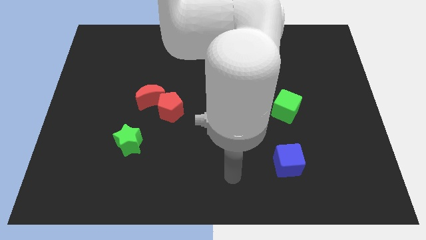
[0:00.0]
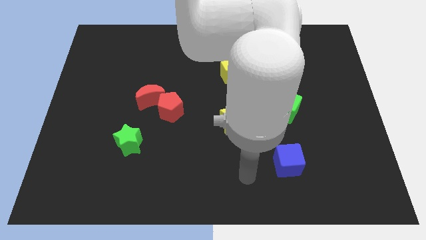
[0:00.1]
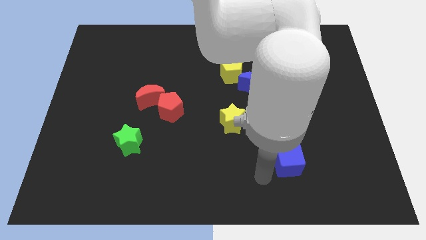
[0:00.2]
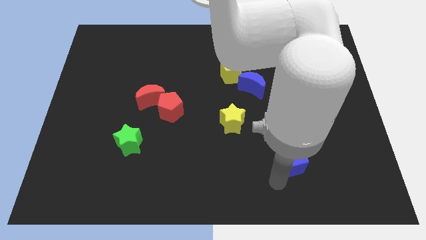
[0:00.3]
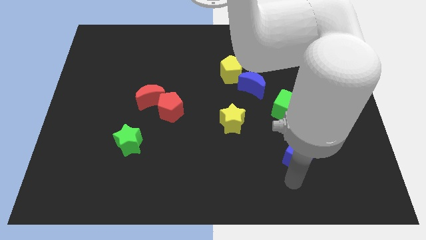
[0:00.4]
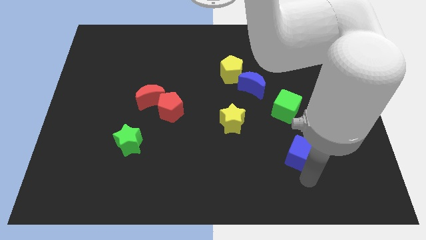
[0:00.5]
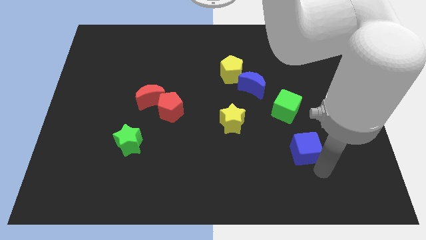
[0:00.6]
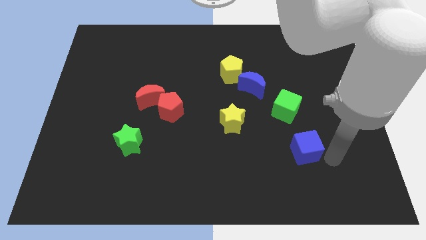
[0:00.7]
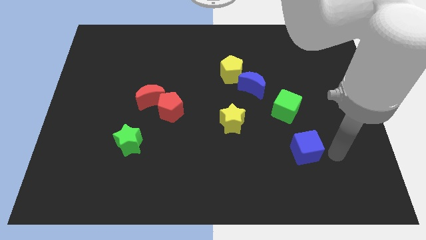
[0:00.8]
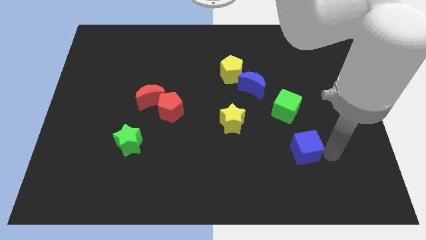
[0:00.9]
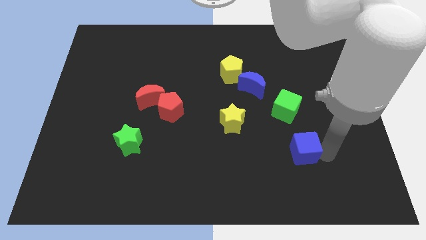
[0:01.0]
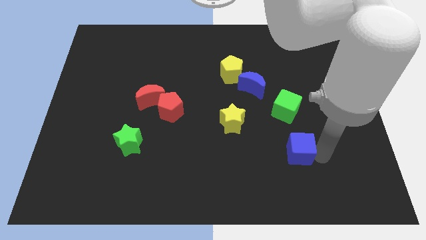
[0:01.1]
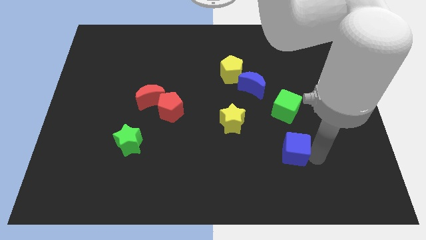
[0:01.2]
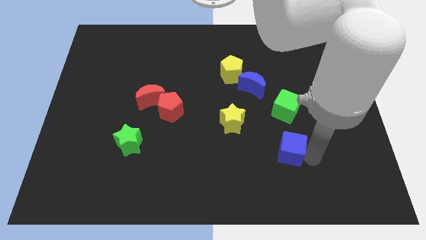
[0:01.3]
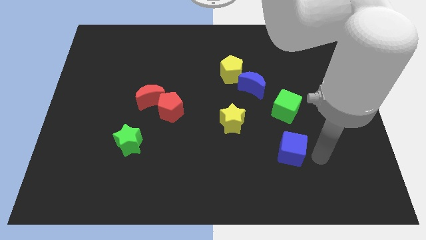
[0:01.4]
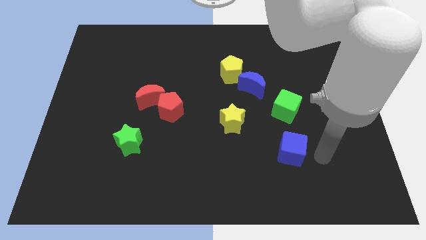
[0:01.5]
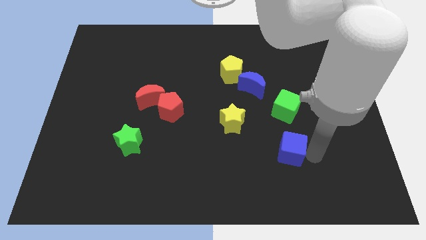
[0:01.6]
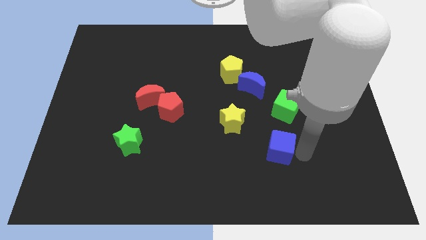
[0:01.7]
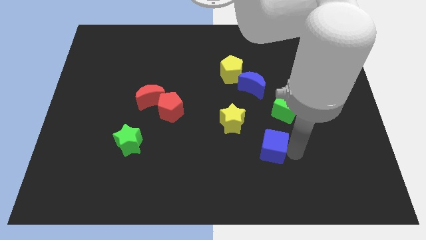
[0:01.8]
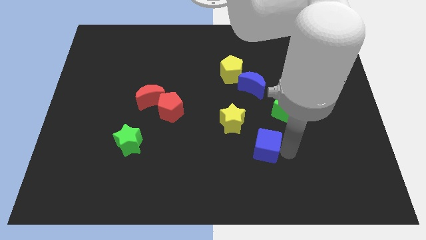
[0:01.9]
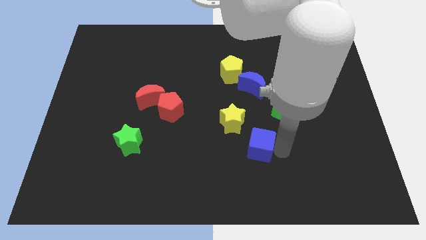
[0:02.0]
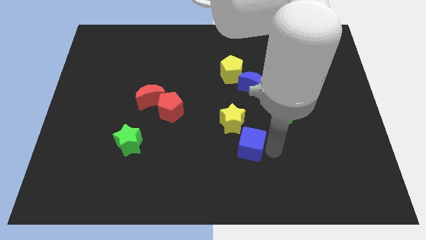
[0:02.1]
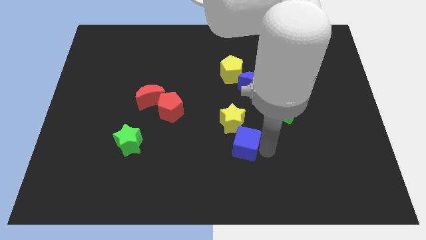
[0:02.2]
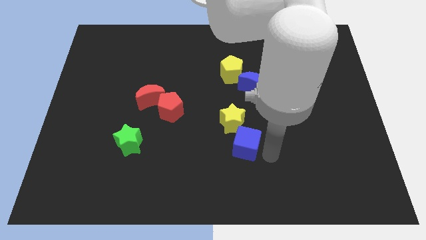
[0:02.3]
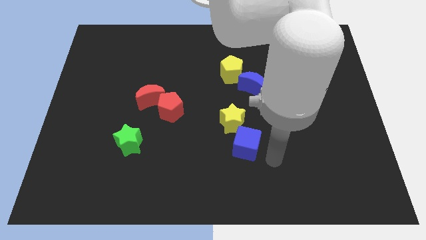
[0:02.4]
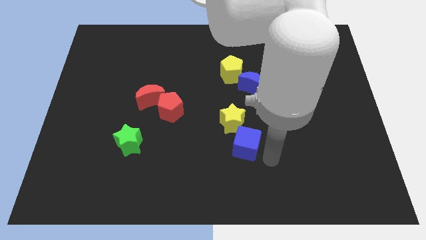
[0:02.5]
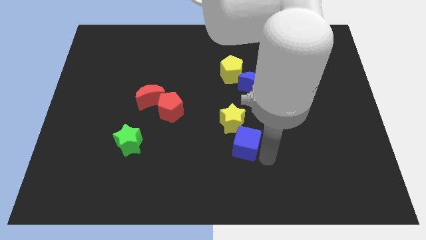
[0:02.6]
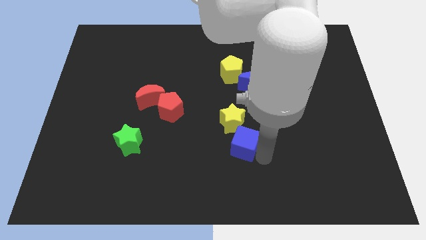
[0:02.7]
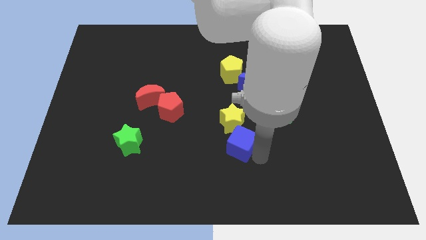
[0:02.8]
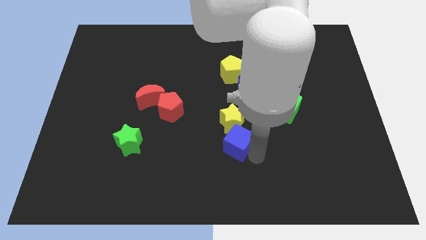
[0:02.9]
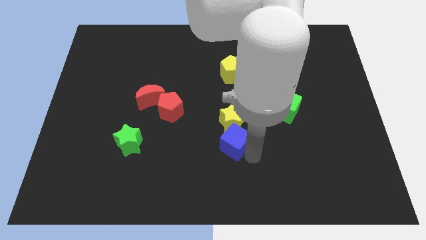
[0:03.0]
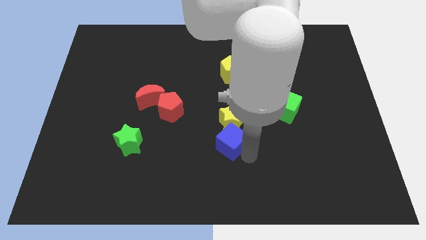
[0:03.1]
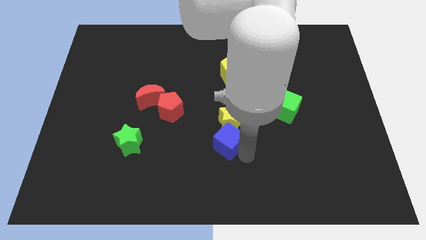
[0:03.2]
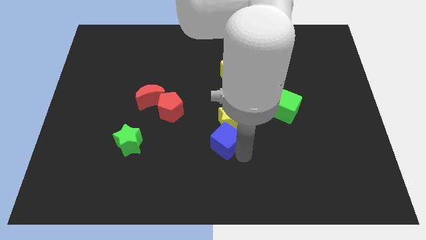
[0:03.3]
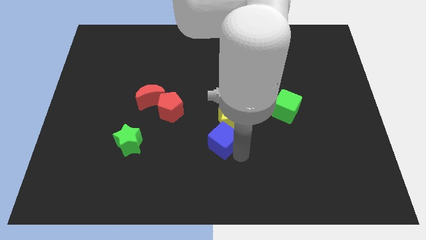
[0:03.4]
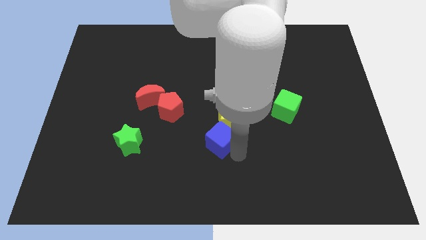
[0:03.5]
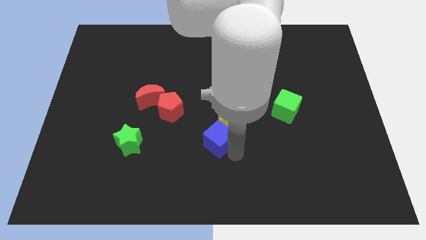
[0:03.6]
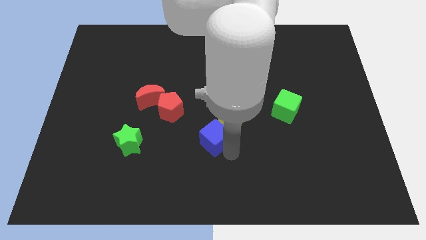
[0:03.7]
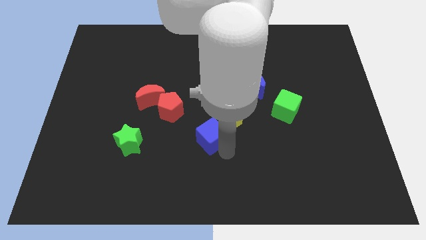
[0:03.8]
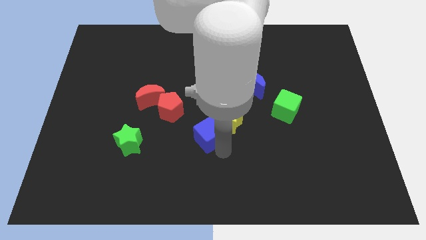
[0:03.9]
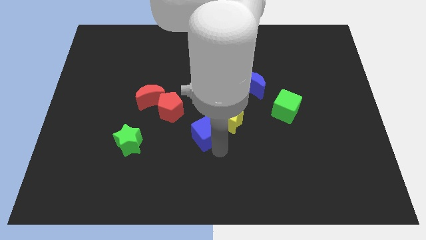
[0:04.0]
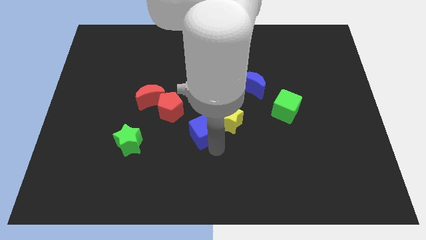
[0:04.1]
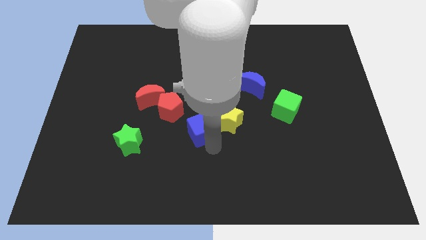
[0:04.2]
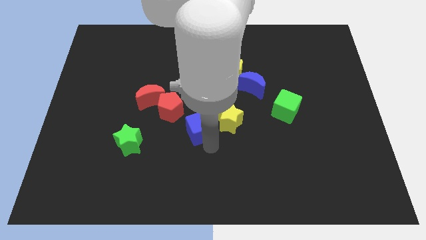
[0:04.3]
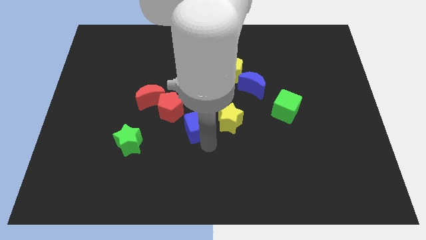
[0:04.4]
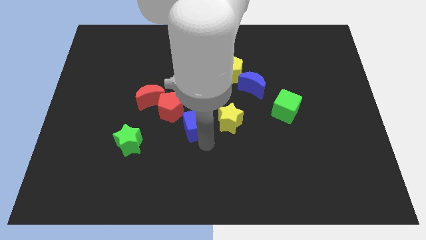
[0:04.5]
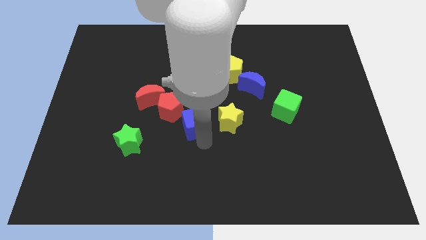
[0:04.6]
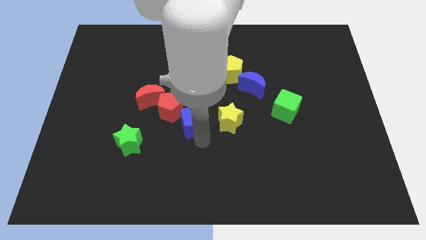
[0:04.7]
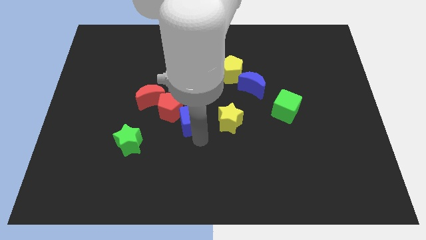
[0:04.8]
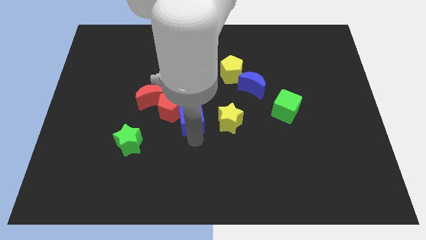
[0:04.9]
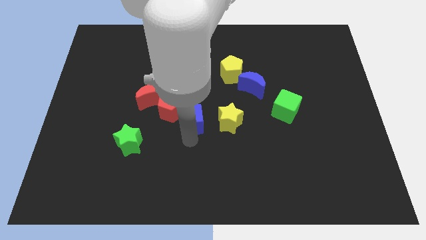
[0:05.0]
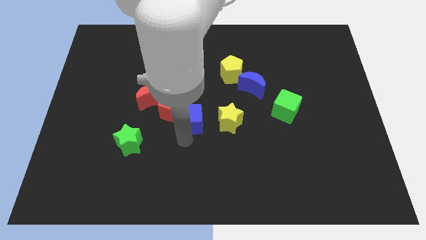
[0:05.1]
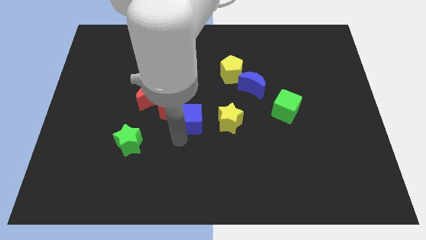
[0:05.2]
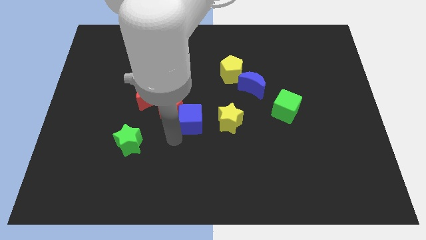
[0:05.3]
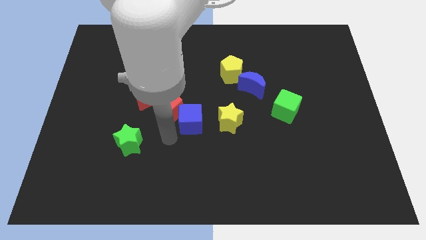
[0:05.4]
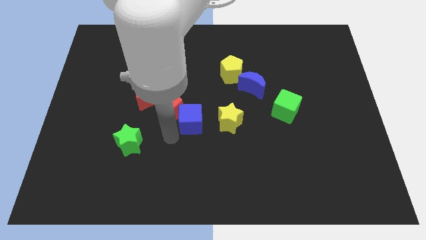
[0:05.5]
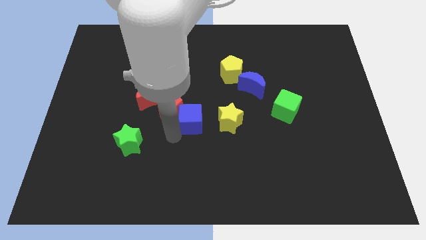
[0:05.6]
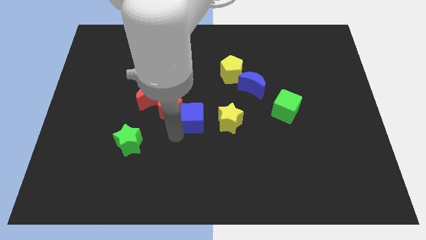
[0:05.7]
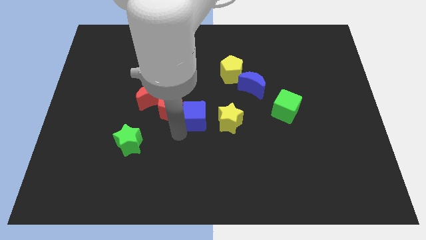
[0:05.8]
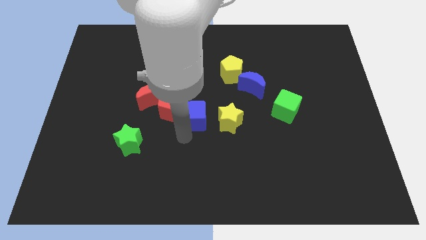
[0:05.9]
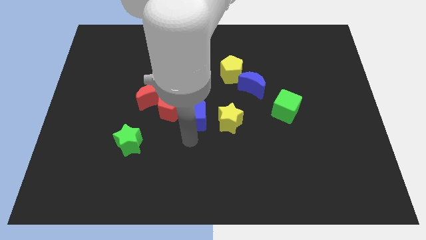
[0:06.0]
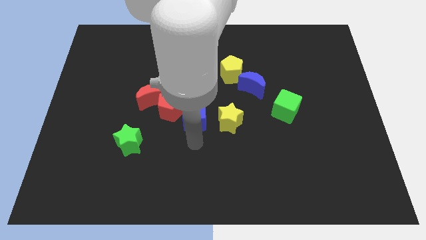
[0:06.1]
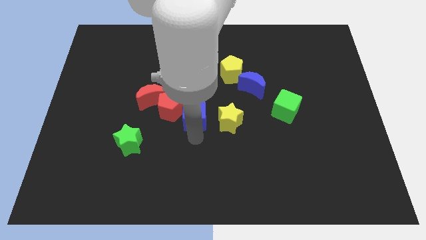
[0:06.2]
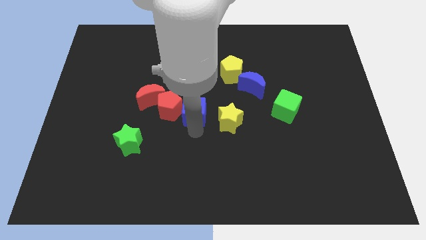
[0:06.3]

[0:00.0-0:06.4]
slide the blue cube right of the red moon
